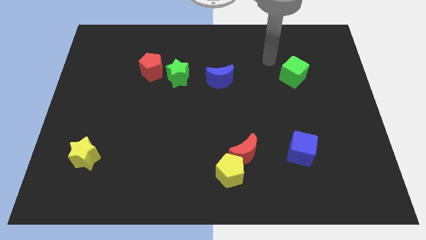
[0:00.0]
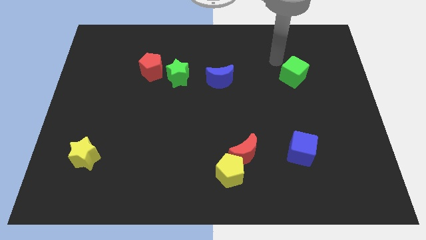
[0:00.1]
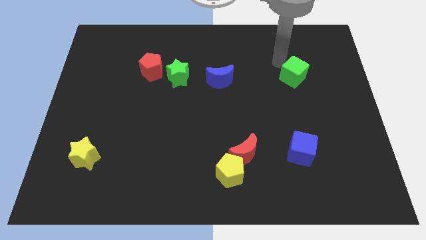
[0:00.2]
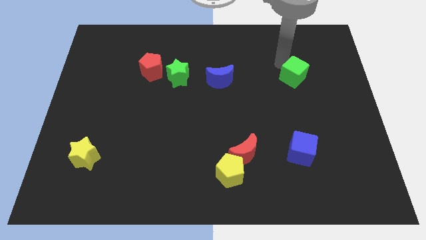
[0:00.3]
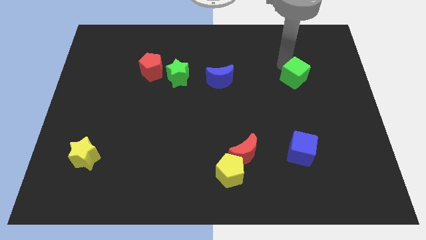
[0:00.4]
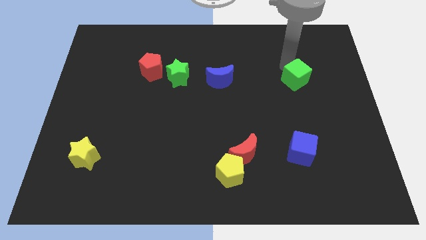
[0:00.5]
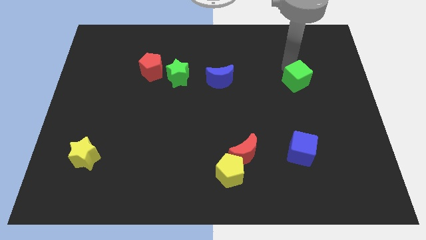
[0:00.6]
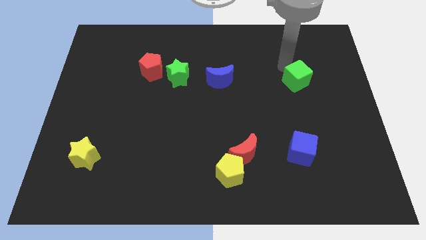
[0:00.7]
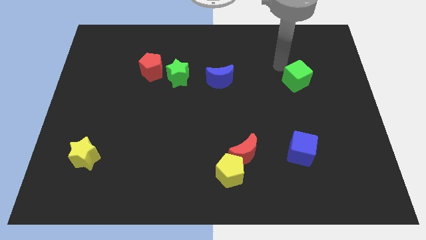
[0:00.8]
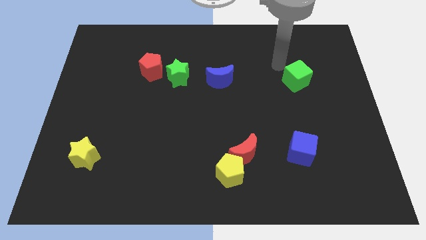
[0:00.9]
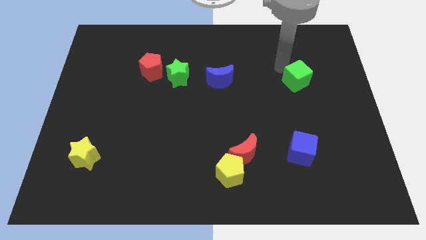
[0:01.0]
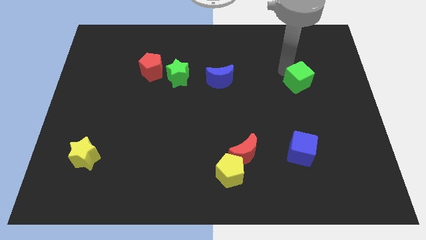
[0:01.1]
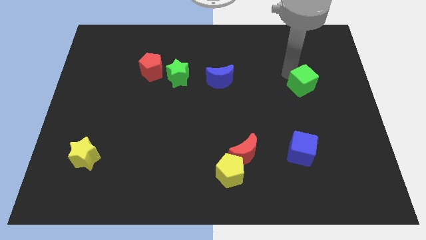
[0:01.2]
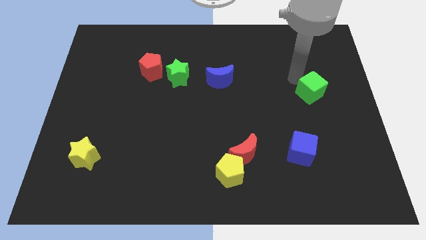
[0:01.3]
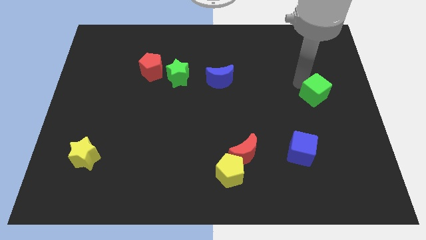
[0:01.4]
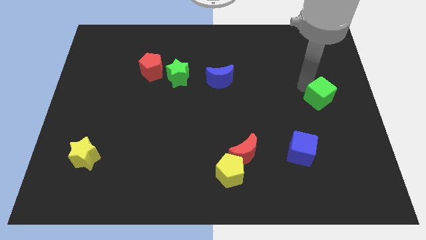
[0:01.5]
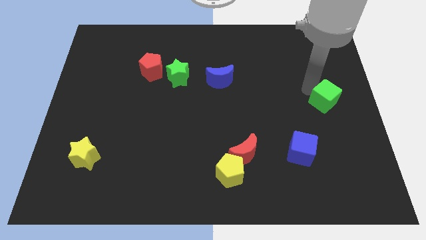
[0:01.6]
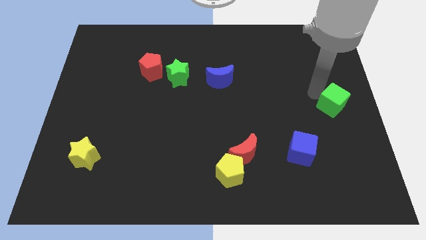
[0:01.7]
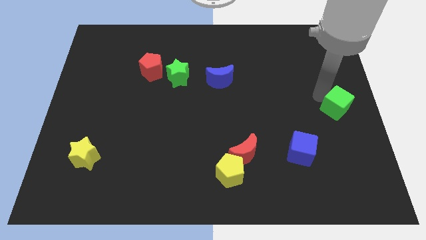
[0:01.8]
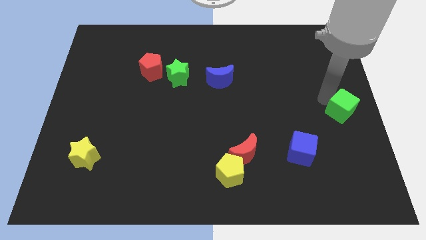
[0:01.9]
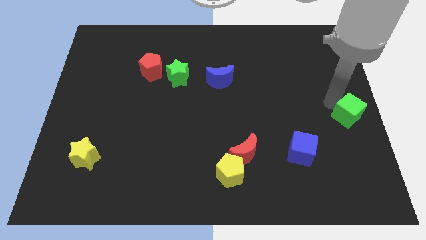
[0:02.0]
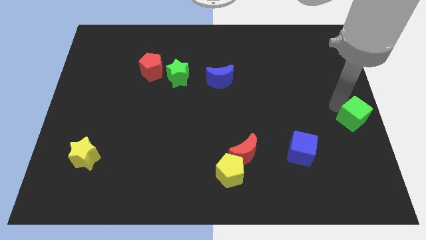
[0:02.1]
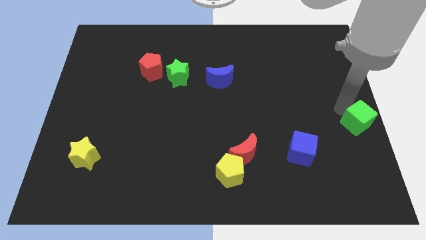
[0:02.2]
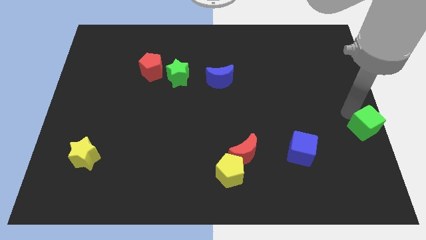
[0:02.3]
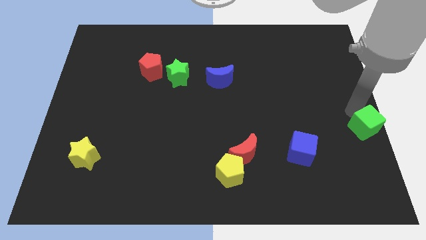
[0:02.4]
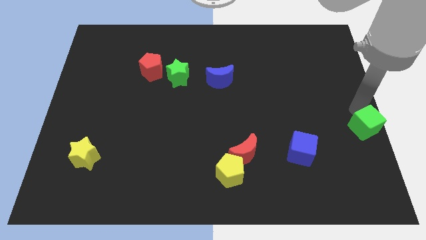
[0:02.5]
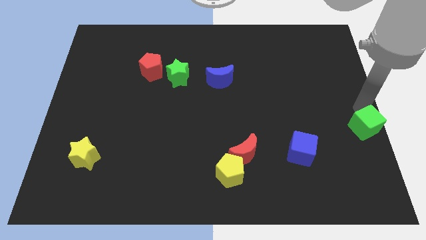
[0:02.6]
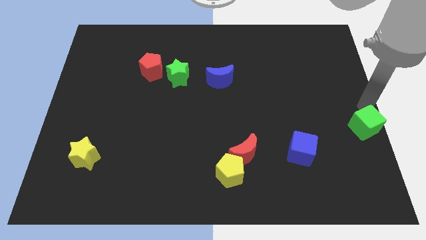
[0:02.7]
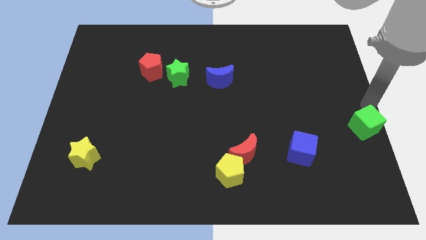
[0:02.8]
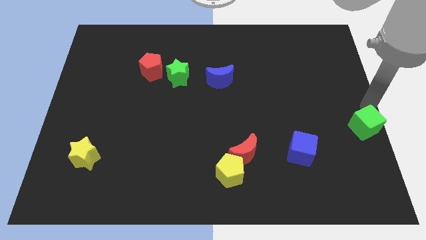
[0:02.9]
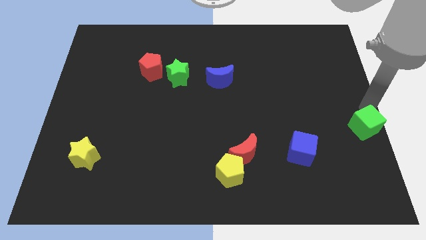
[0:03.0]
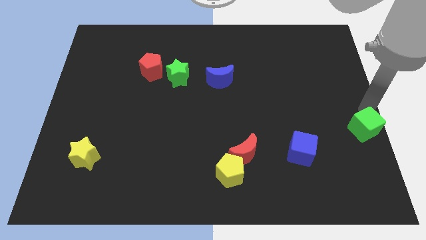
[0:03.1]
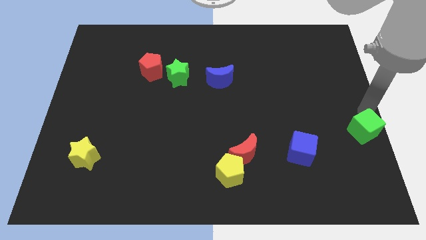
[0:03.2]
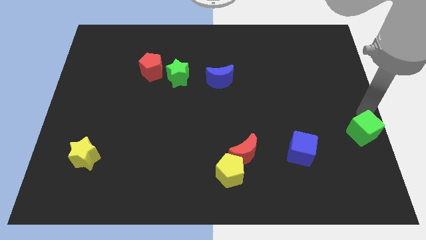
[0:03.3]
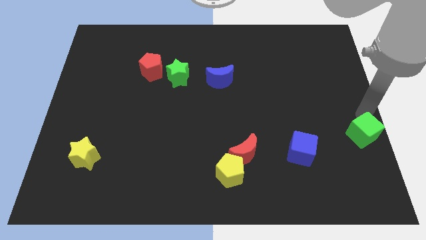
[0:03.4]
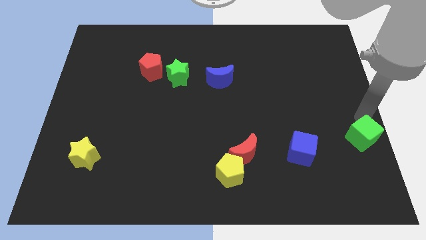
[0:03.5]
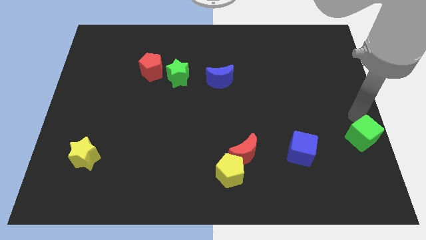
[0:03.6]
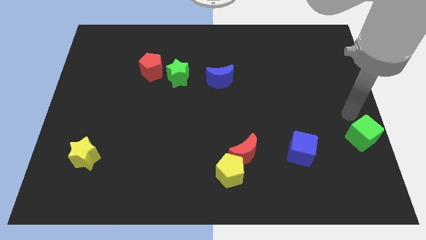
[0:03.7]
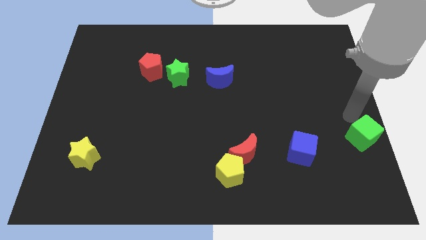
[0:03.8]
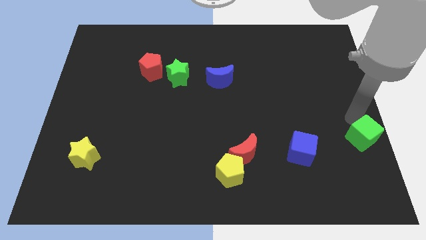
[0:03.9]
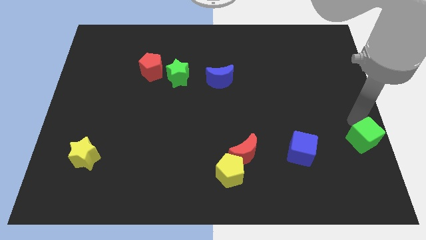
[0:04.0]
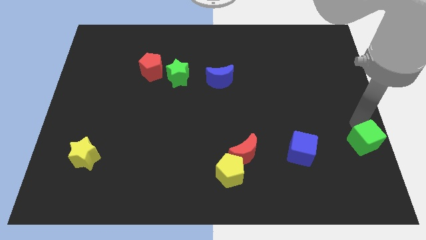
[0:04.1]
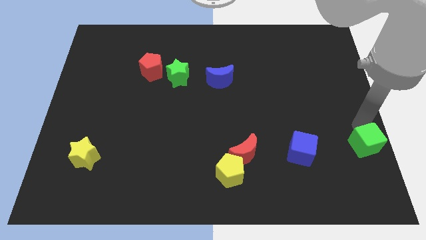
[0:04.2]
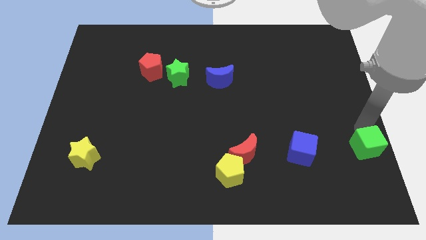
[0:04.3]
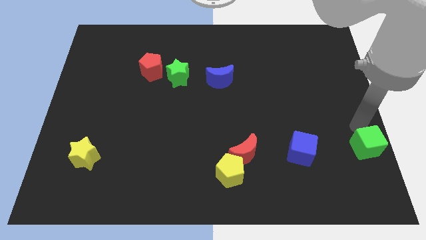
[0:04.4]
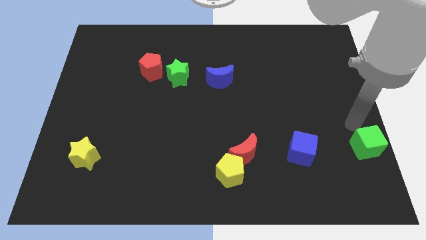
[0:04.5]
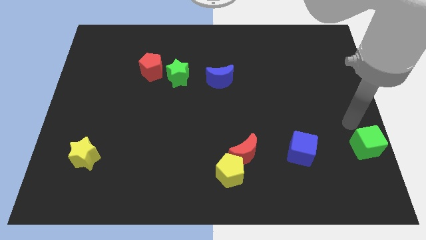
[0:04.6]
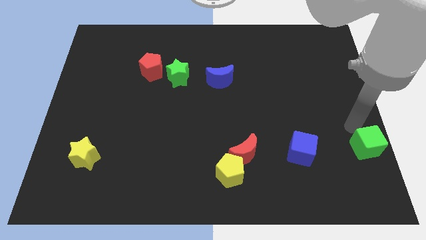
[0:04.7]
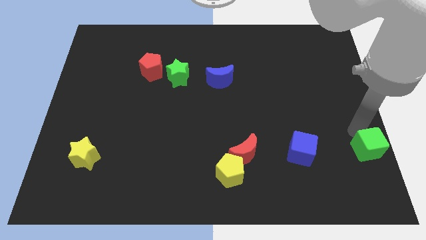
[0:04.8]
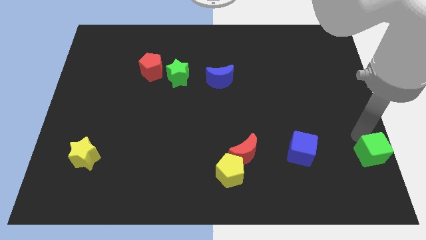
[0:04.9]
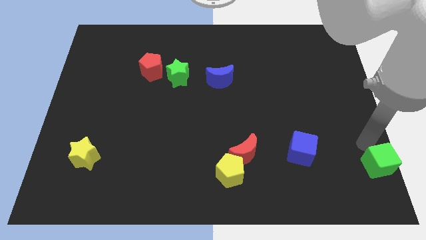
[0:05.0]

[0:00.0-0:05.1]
move the green cube to the bottom right corner

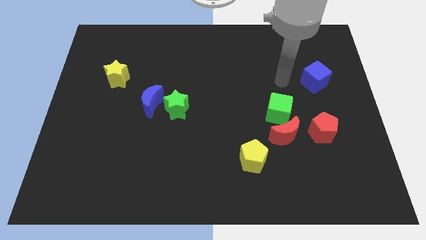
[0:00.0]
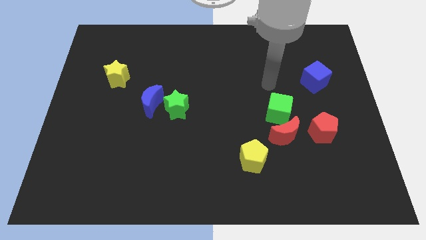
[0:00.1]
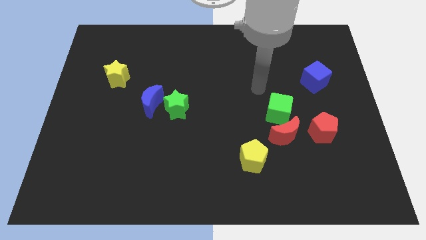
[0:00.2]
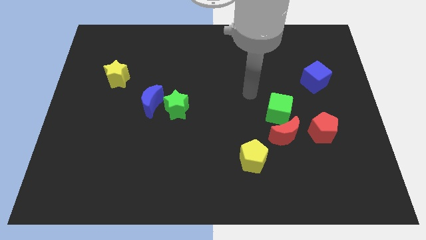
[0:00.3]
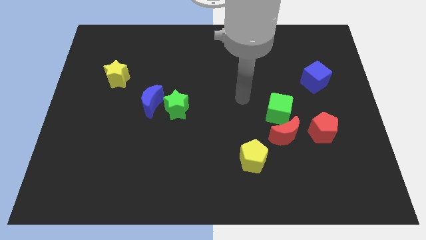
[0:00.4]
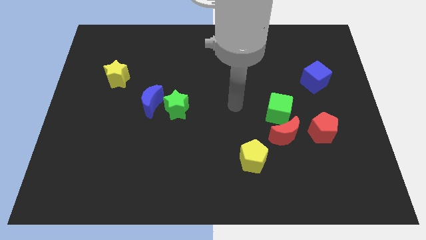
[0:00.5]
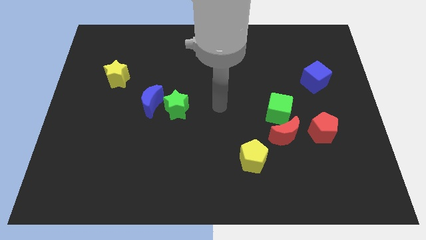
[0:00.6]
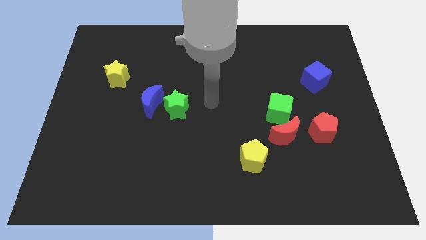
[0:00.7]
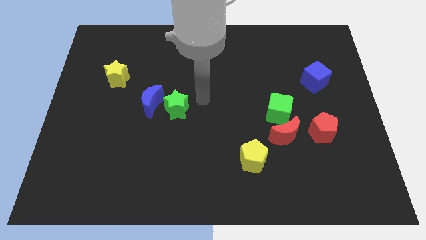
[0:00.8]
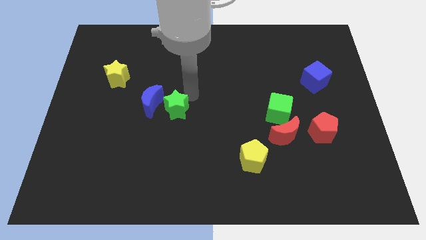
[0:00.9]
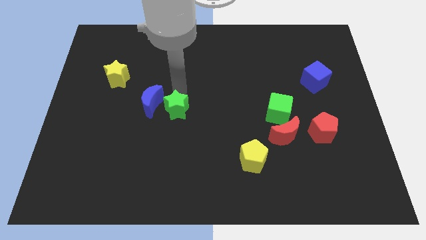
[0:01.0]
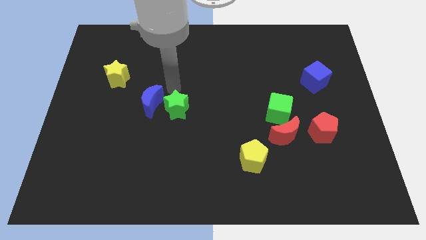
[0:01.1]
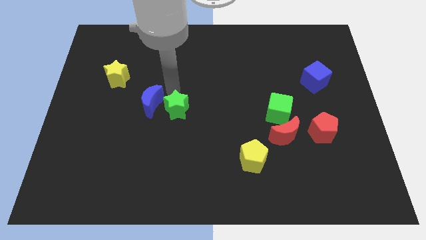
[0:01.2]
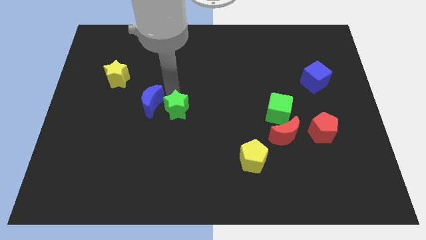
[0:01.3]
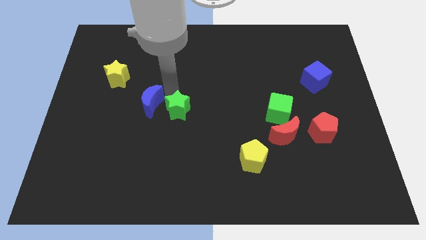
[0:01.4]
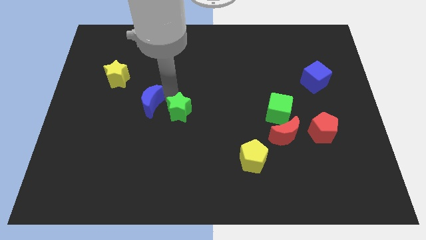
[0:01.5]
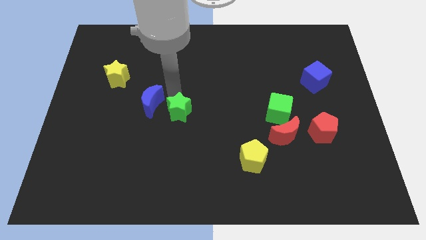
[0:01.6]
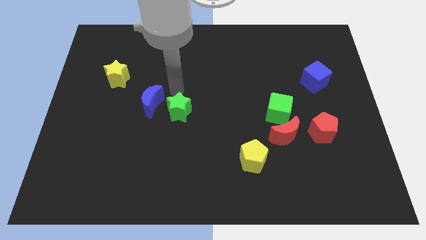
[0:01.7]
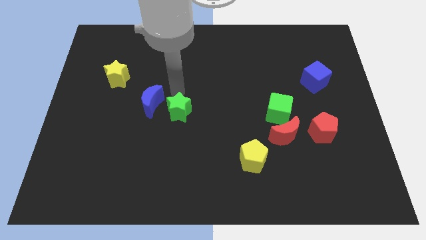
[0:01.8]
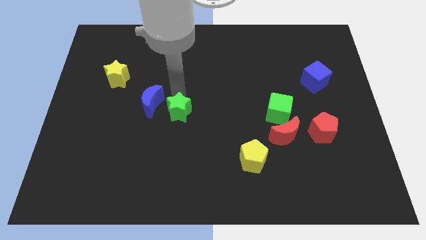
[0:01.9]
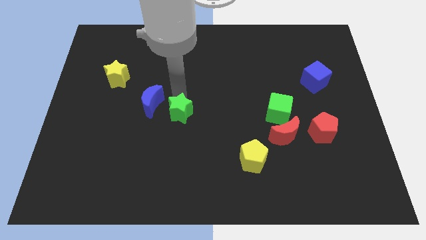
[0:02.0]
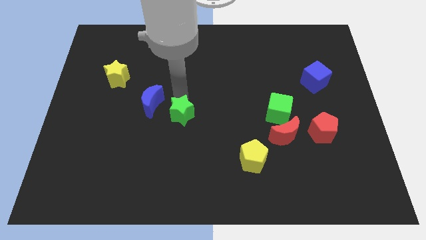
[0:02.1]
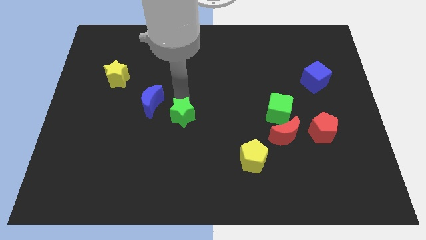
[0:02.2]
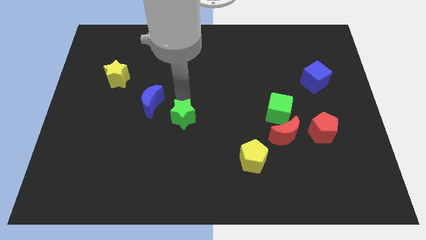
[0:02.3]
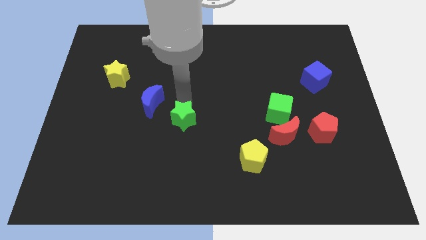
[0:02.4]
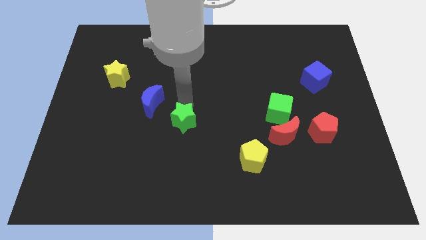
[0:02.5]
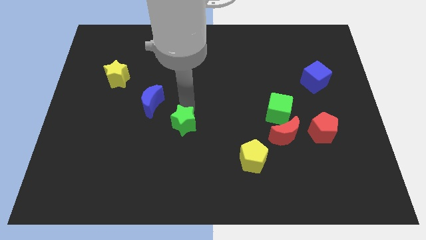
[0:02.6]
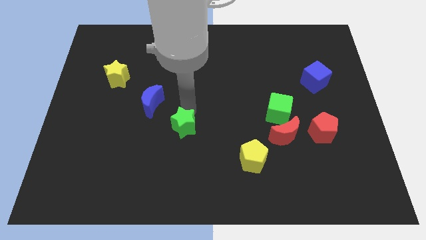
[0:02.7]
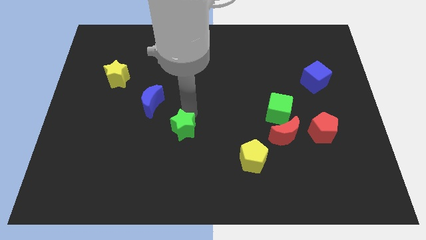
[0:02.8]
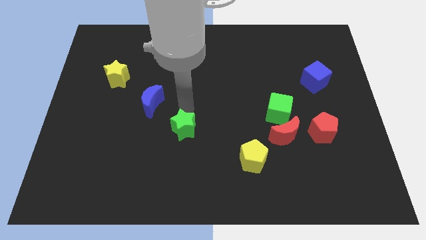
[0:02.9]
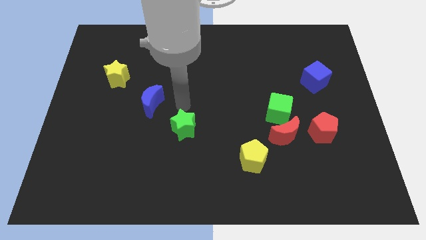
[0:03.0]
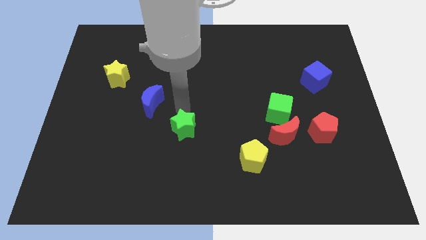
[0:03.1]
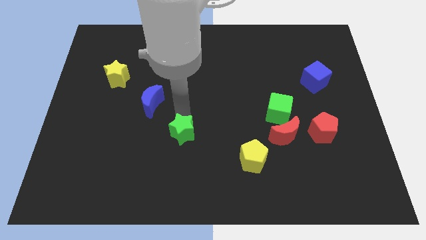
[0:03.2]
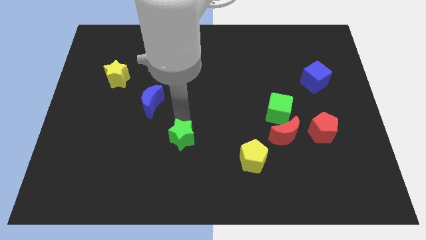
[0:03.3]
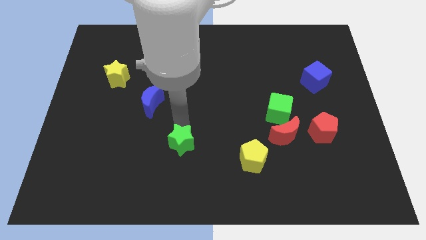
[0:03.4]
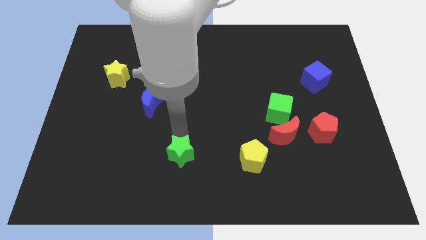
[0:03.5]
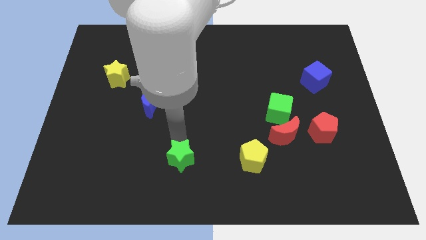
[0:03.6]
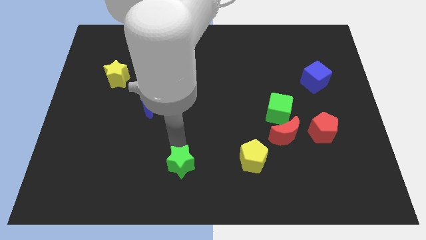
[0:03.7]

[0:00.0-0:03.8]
push the green star to the bottom side
